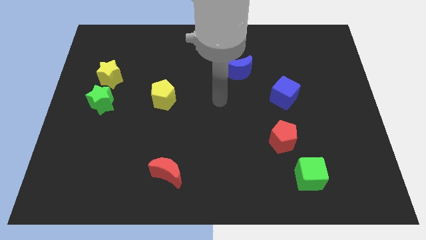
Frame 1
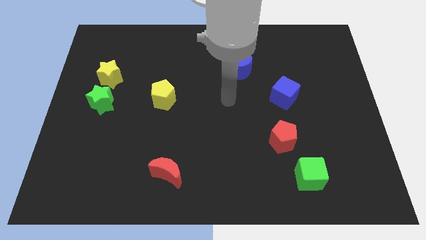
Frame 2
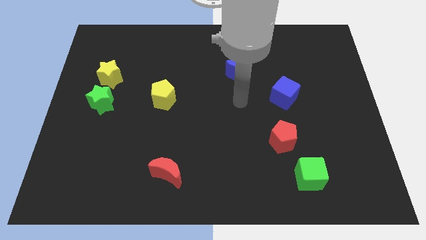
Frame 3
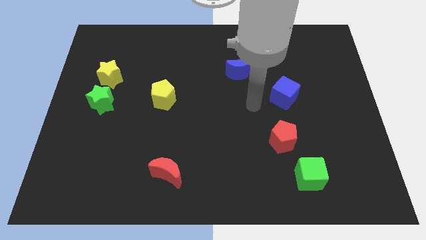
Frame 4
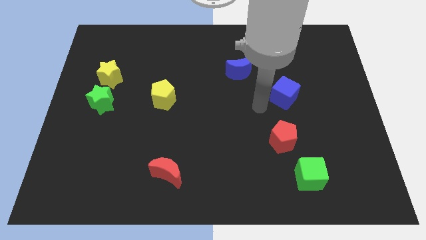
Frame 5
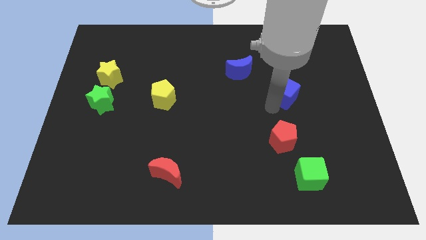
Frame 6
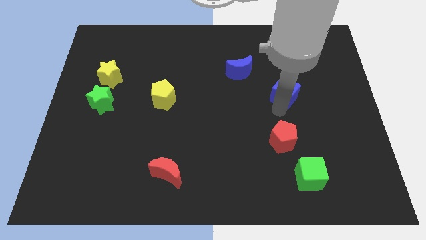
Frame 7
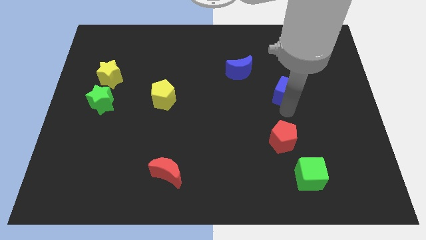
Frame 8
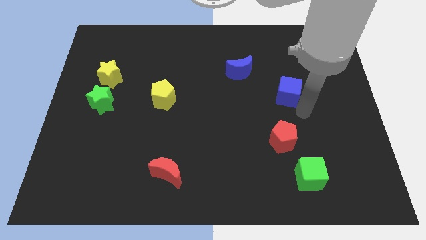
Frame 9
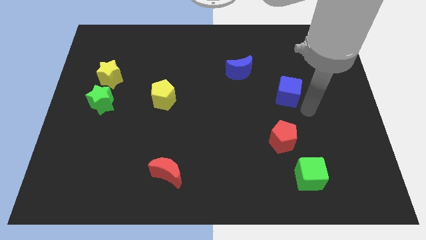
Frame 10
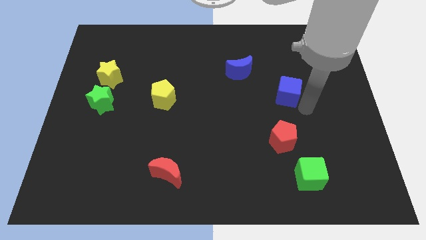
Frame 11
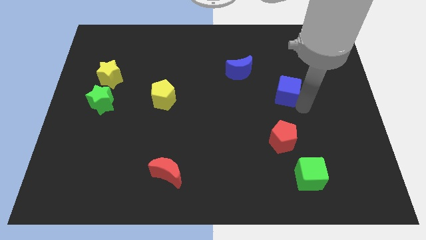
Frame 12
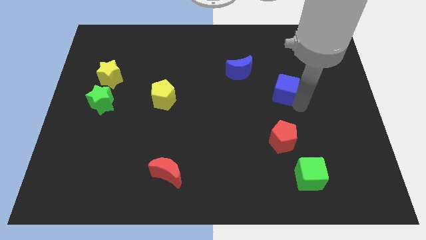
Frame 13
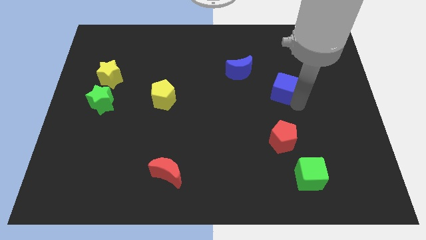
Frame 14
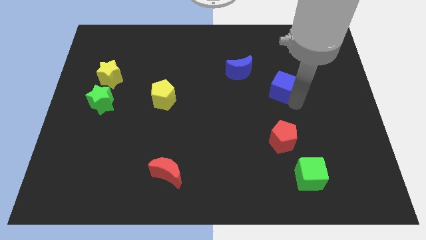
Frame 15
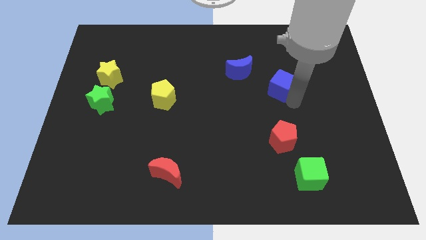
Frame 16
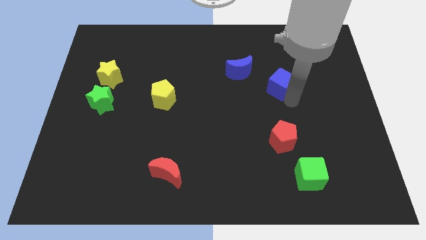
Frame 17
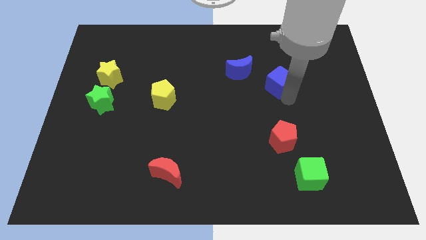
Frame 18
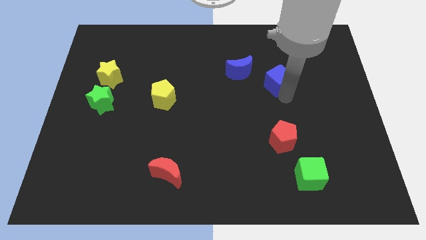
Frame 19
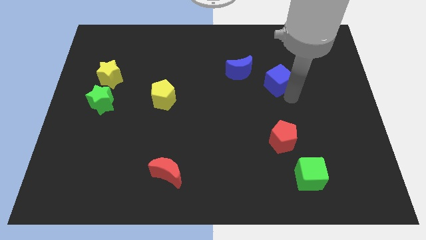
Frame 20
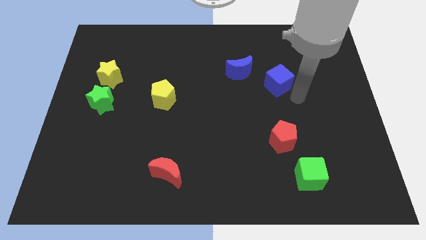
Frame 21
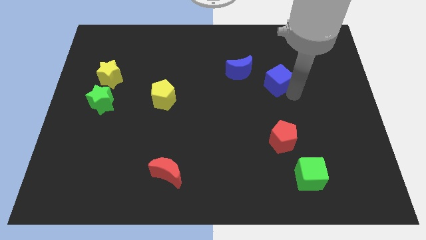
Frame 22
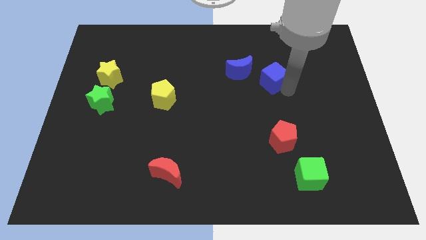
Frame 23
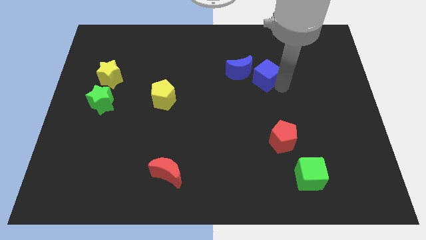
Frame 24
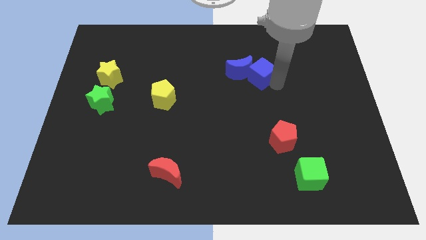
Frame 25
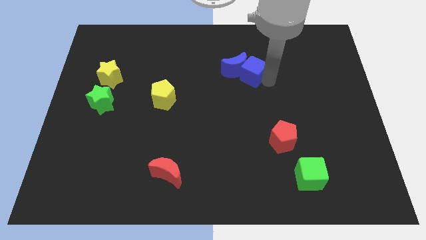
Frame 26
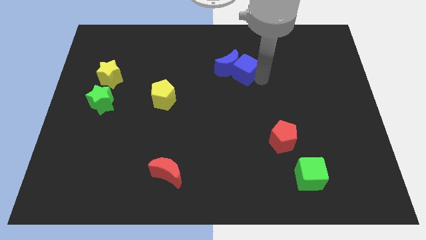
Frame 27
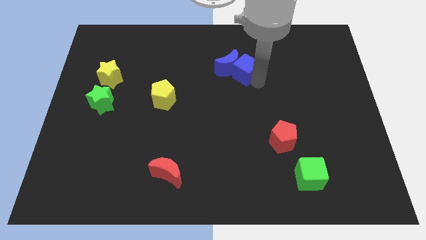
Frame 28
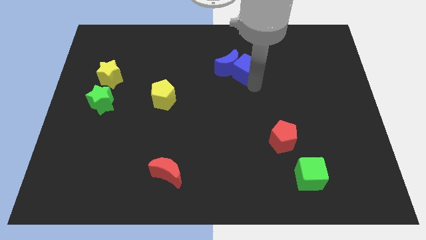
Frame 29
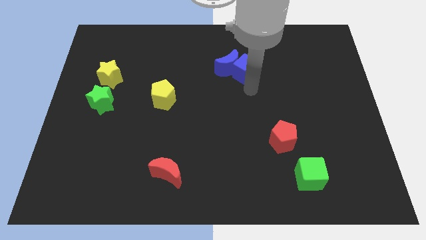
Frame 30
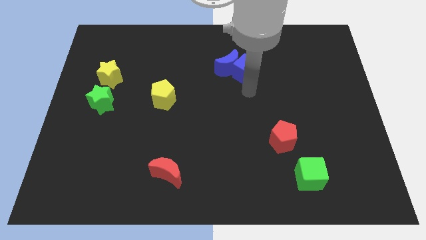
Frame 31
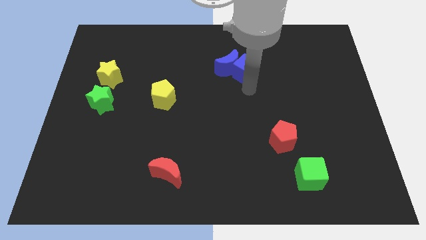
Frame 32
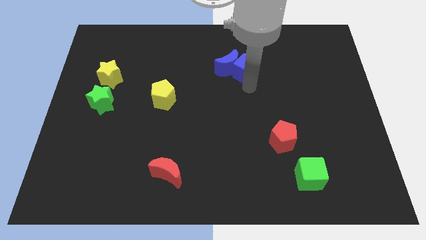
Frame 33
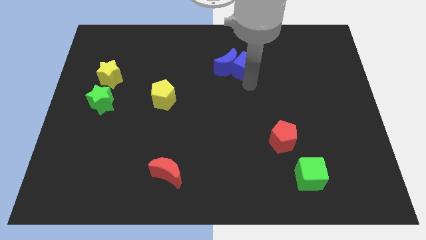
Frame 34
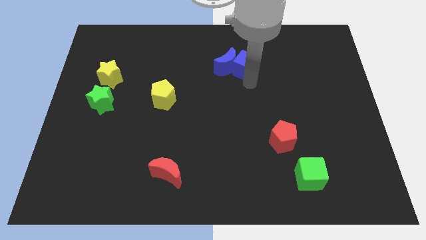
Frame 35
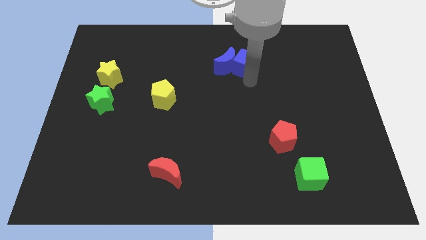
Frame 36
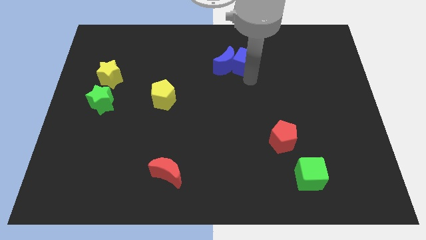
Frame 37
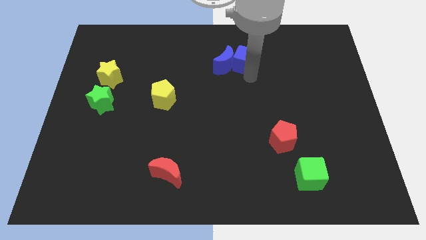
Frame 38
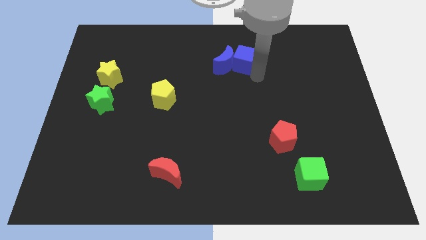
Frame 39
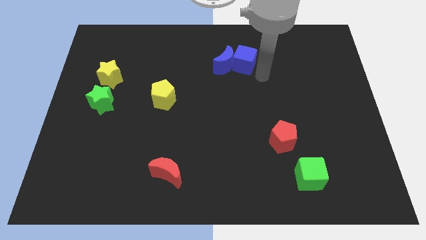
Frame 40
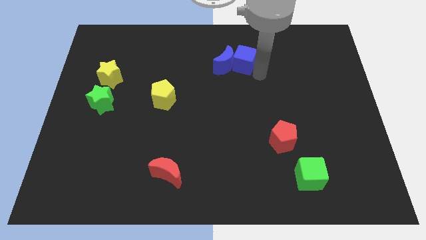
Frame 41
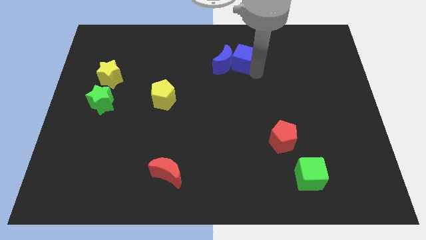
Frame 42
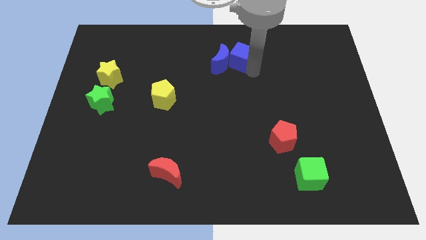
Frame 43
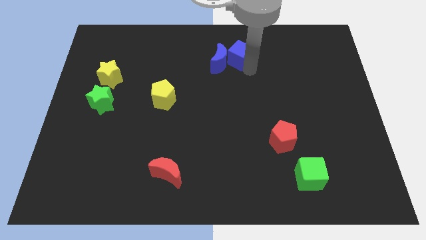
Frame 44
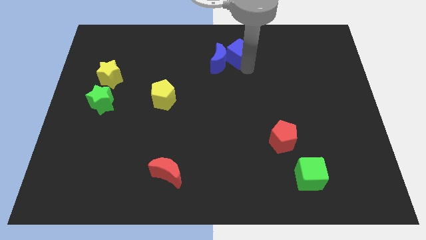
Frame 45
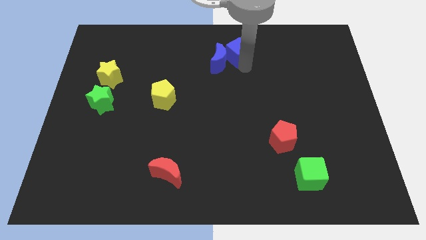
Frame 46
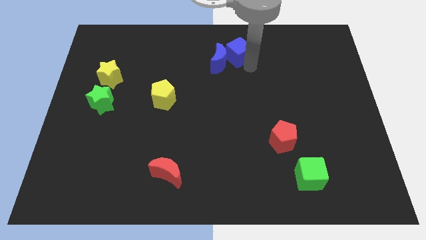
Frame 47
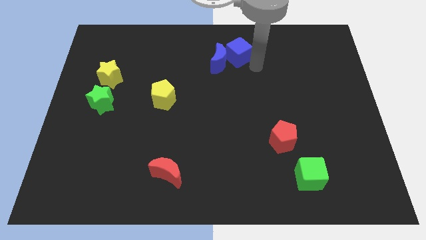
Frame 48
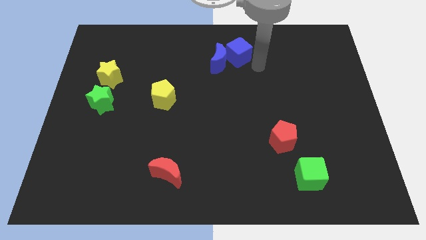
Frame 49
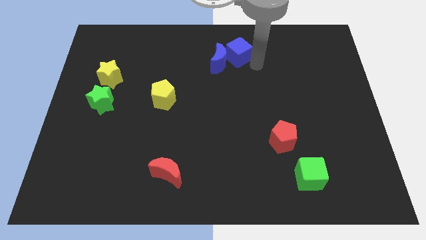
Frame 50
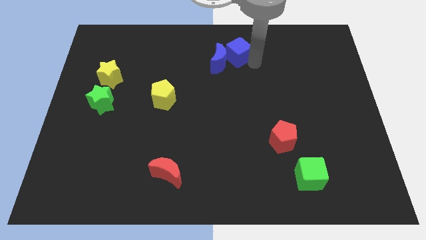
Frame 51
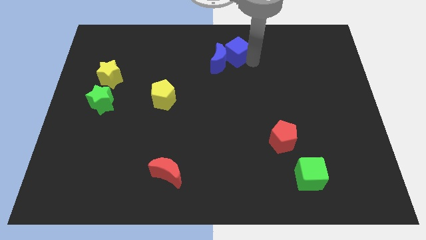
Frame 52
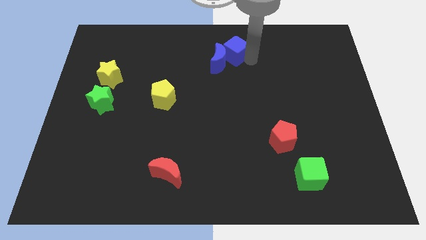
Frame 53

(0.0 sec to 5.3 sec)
slide the blue cube to the top side

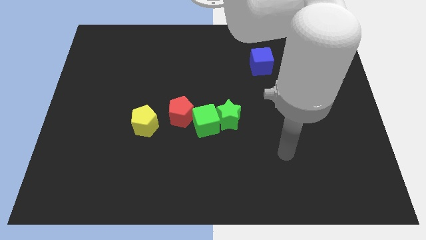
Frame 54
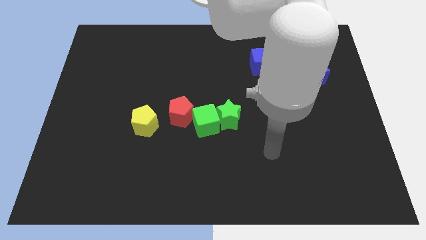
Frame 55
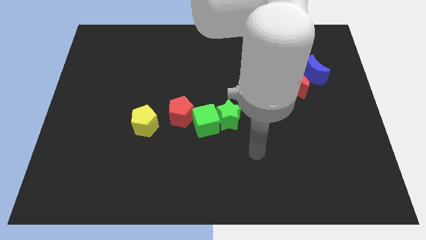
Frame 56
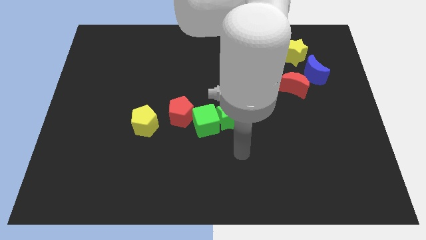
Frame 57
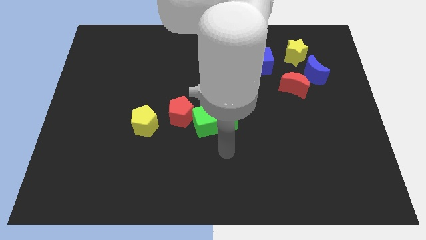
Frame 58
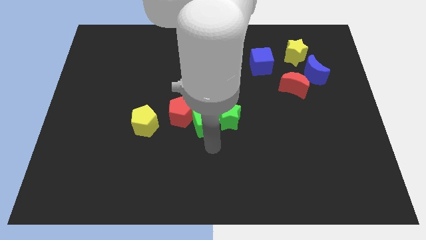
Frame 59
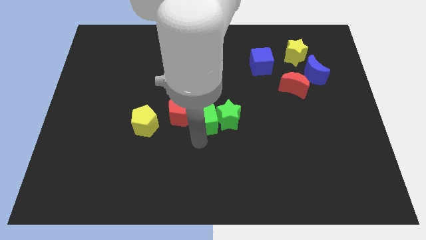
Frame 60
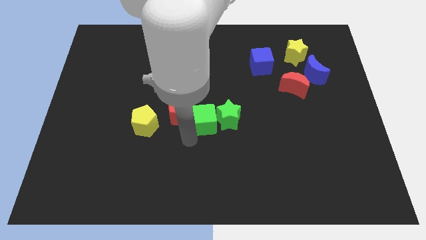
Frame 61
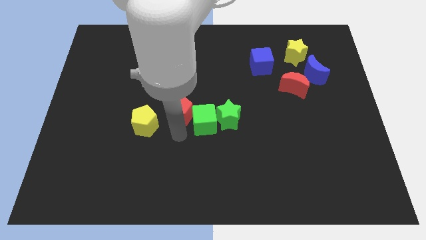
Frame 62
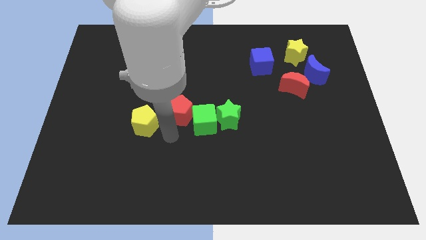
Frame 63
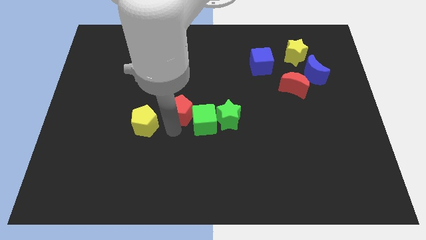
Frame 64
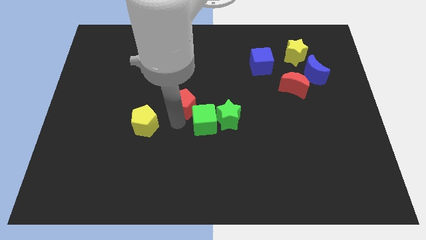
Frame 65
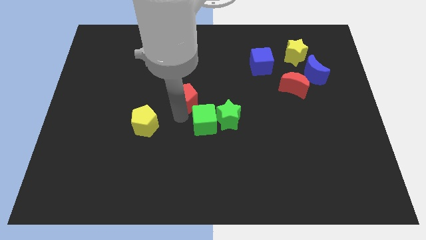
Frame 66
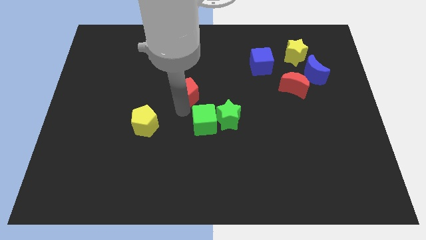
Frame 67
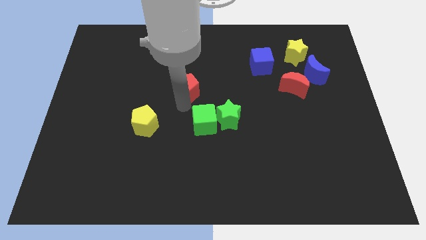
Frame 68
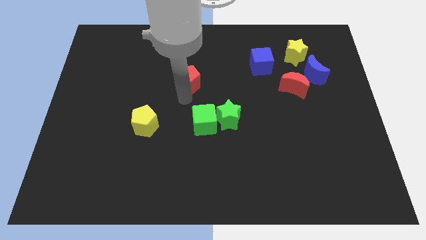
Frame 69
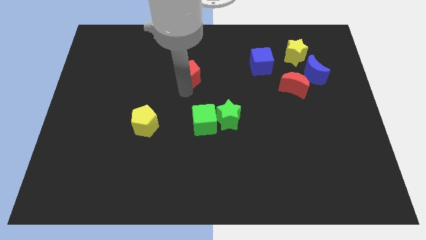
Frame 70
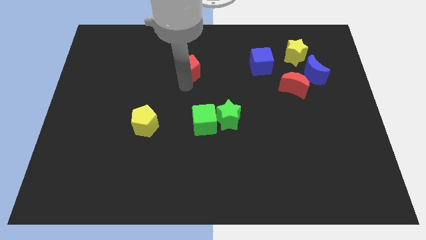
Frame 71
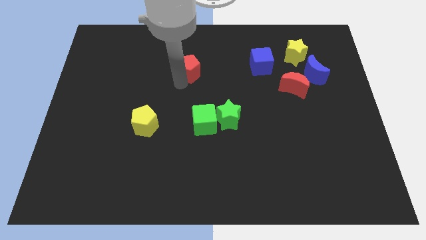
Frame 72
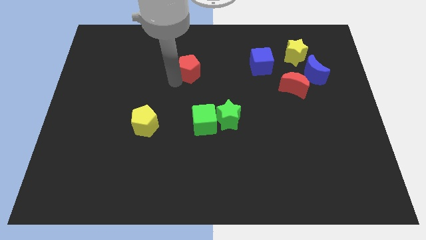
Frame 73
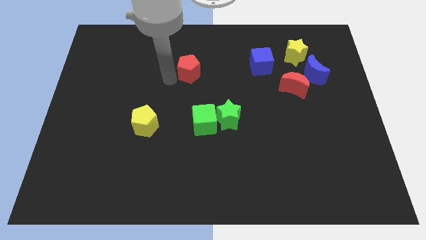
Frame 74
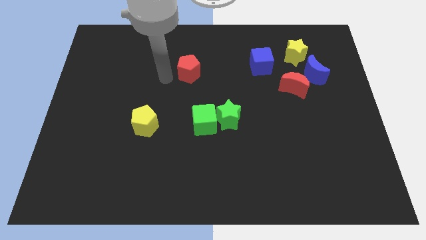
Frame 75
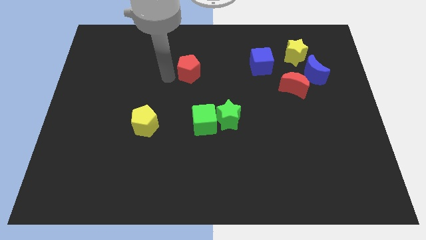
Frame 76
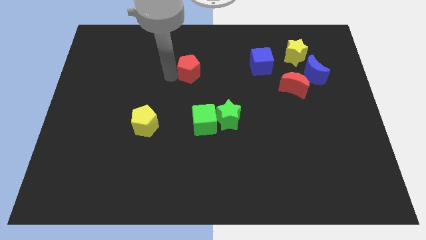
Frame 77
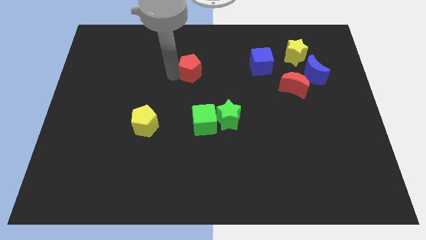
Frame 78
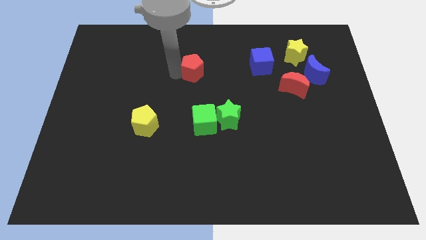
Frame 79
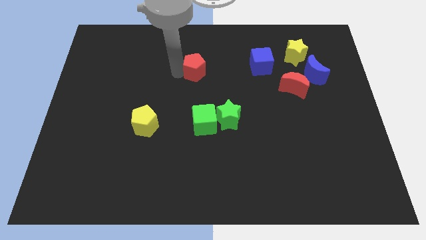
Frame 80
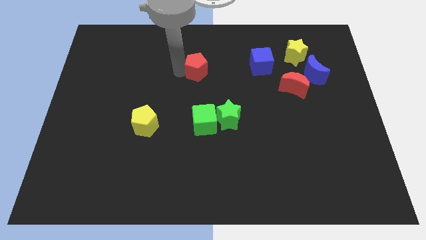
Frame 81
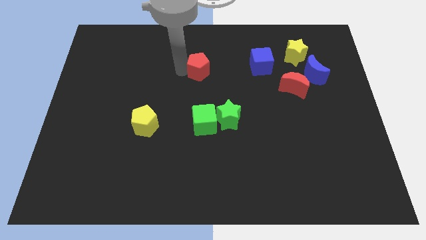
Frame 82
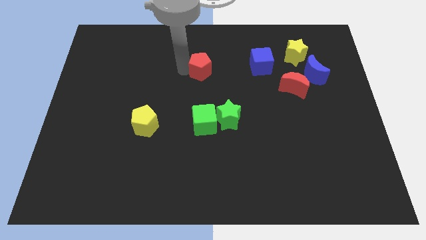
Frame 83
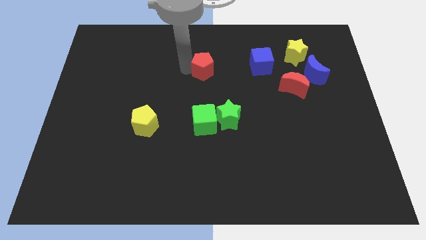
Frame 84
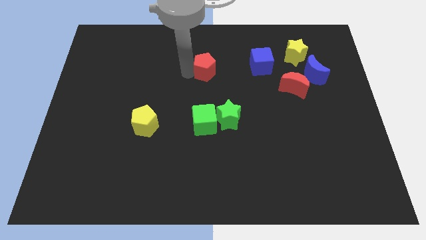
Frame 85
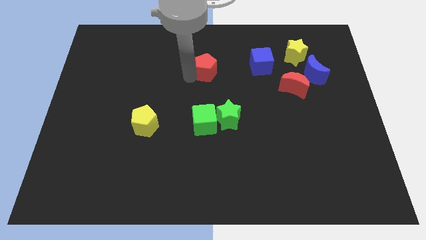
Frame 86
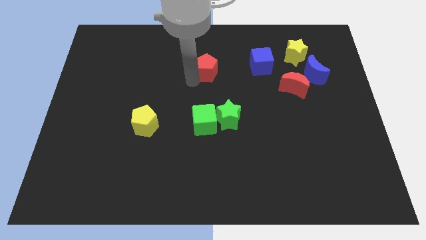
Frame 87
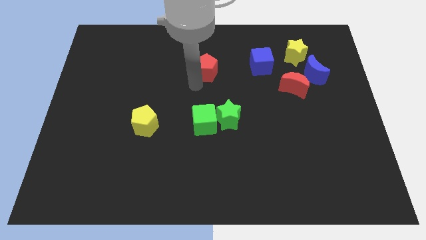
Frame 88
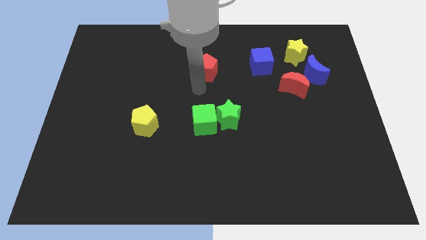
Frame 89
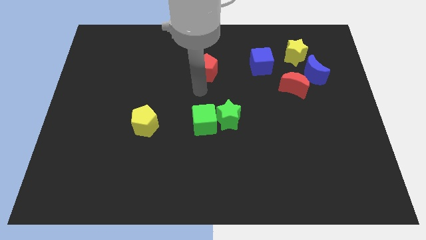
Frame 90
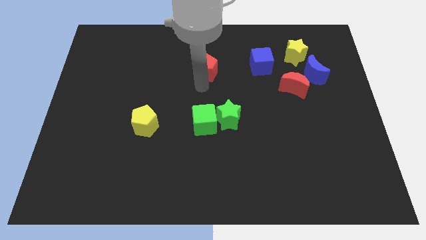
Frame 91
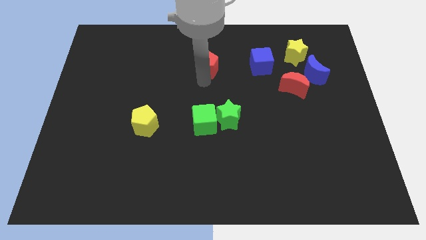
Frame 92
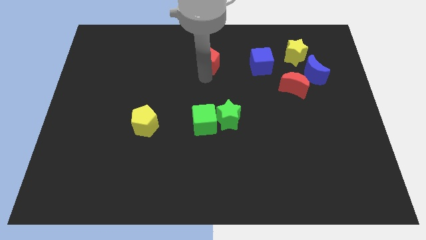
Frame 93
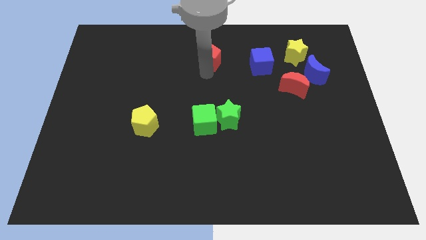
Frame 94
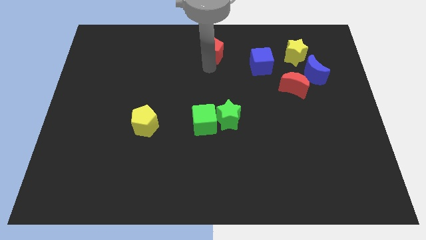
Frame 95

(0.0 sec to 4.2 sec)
put the red pentagon to the towards your base
